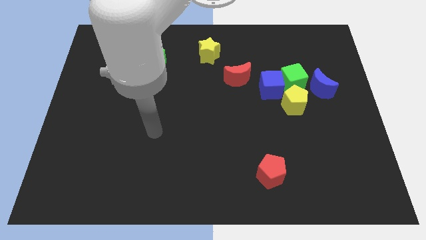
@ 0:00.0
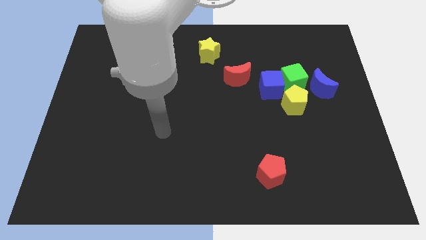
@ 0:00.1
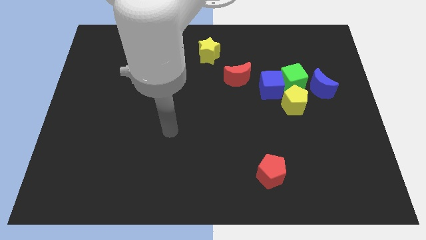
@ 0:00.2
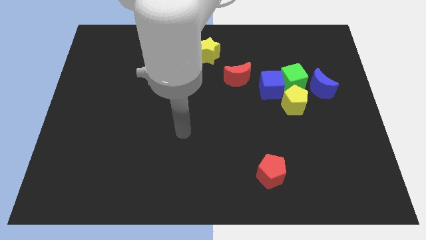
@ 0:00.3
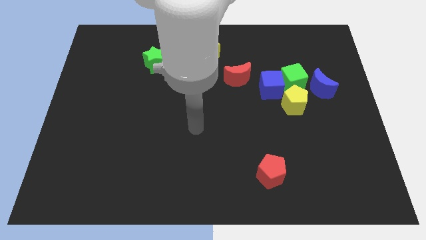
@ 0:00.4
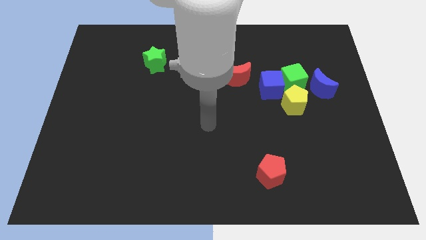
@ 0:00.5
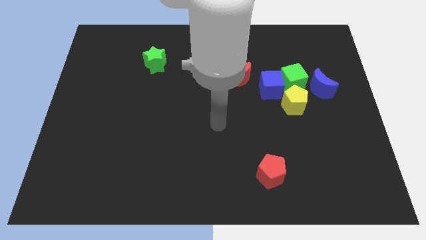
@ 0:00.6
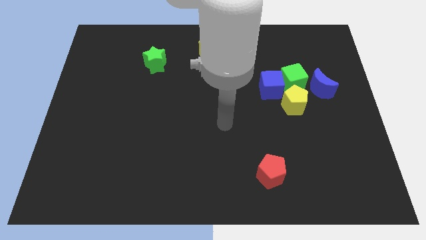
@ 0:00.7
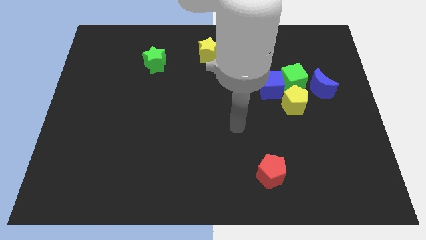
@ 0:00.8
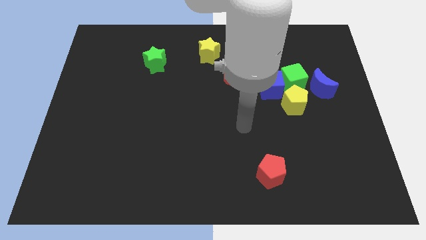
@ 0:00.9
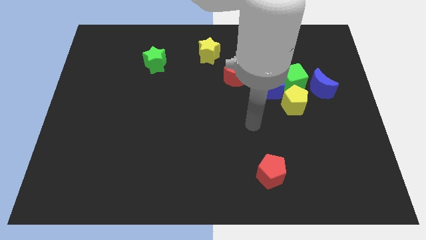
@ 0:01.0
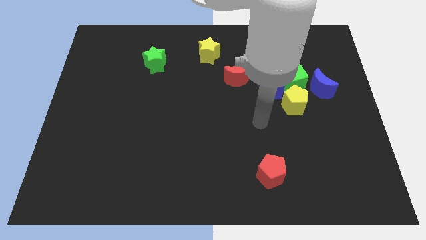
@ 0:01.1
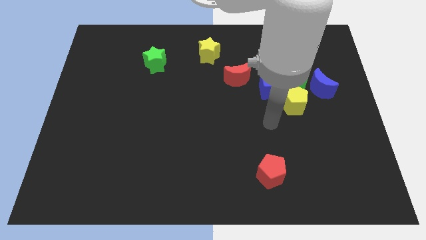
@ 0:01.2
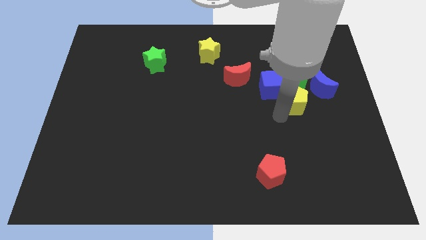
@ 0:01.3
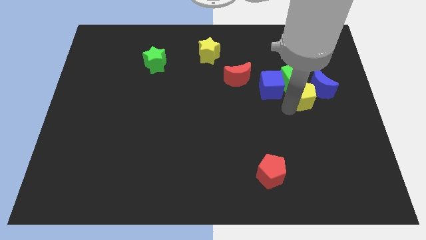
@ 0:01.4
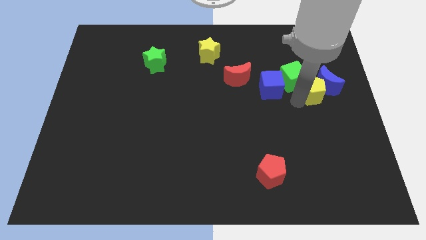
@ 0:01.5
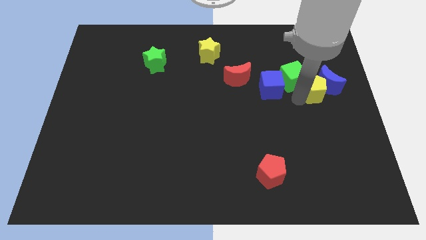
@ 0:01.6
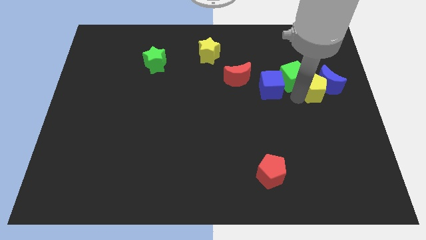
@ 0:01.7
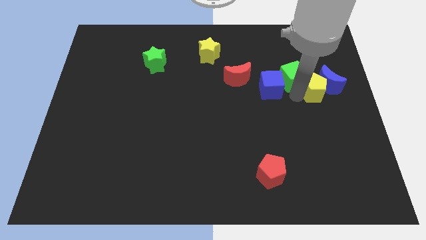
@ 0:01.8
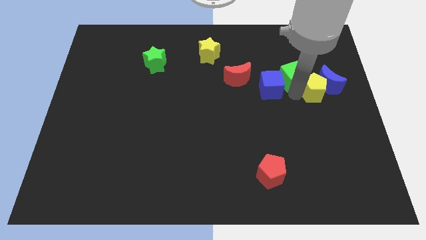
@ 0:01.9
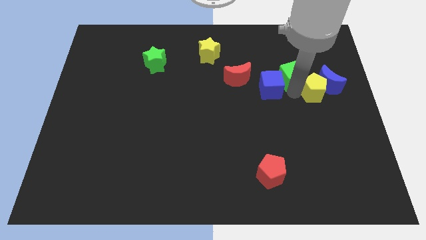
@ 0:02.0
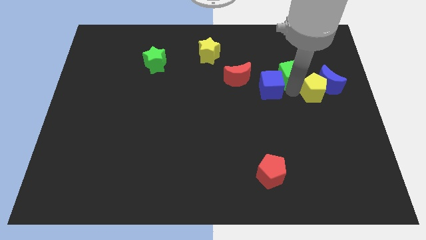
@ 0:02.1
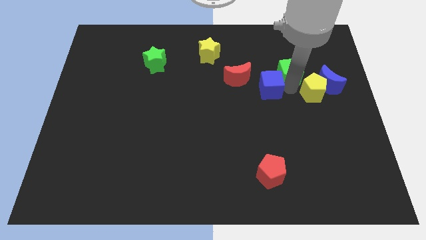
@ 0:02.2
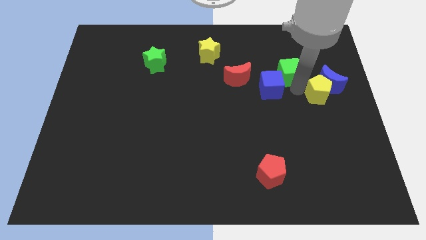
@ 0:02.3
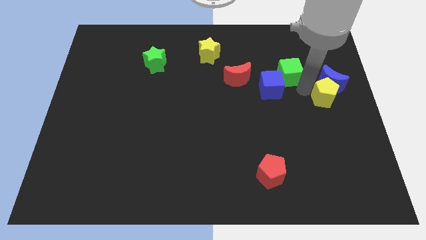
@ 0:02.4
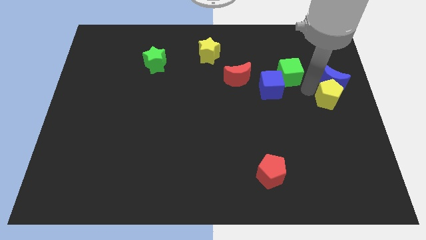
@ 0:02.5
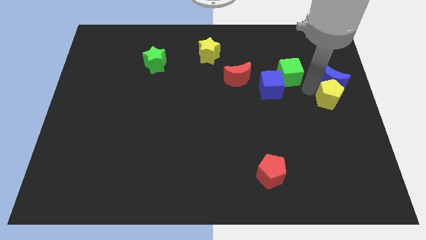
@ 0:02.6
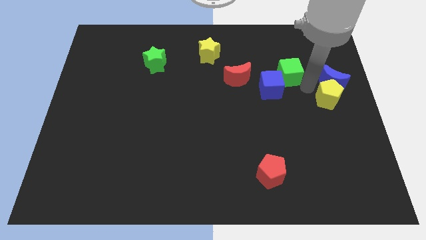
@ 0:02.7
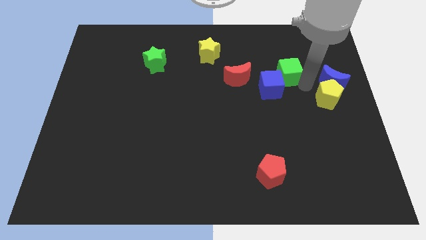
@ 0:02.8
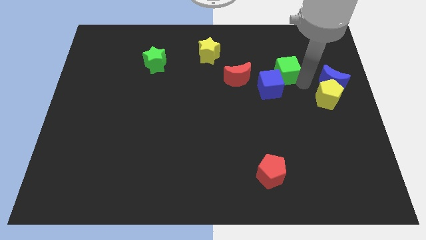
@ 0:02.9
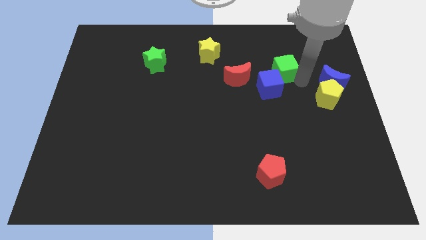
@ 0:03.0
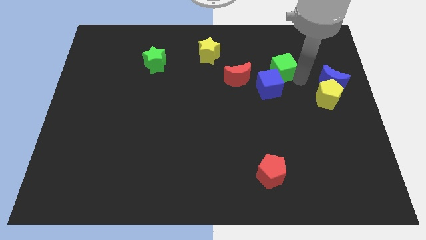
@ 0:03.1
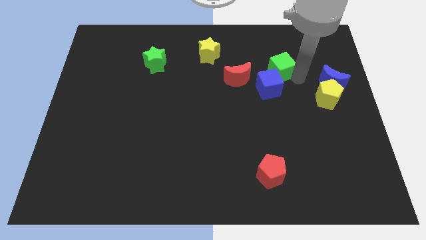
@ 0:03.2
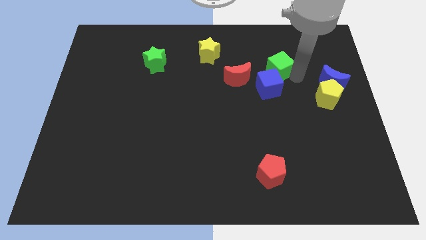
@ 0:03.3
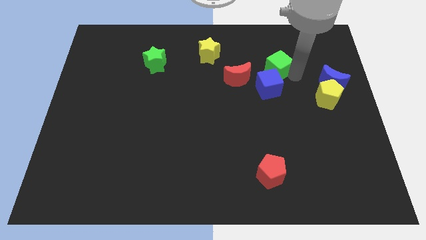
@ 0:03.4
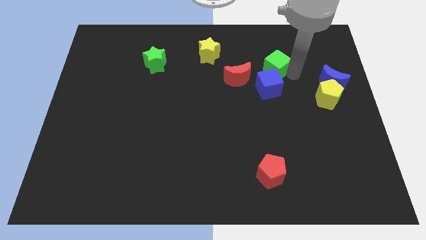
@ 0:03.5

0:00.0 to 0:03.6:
separate the green cube from the blue cube, blue moon, and yellow pentagon

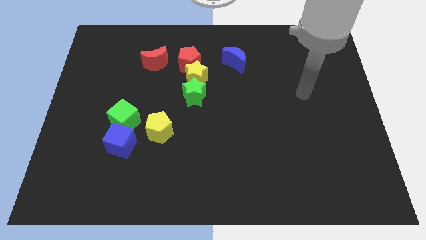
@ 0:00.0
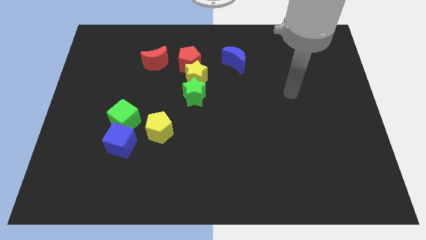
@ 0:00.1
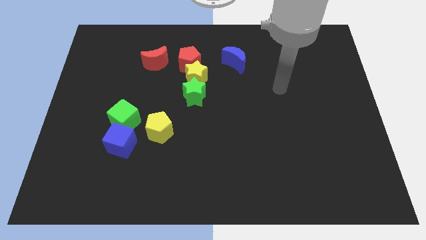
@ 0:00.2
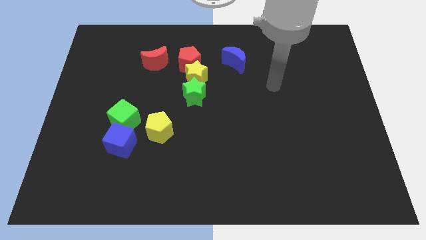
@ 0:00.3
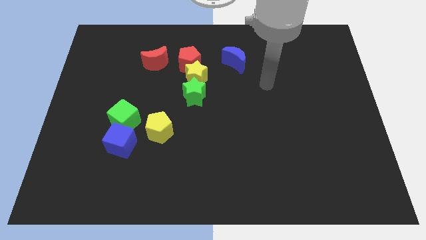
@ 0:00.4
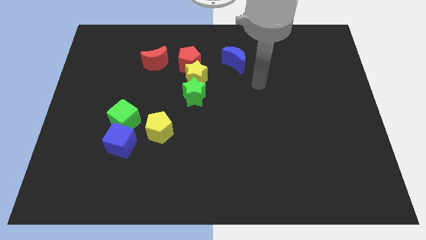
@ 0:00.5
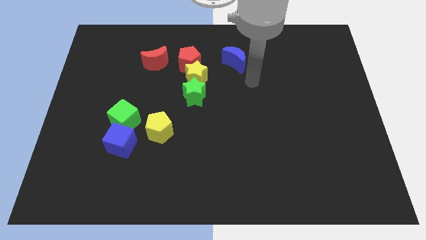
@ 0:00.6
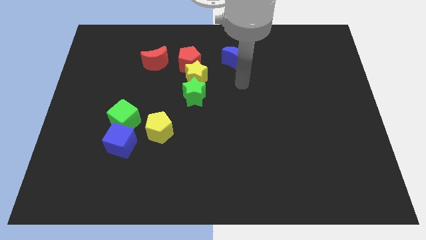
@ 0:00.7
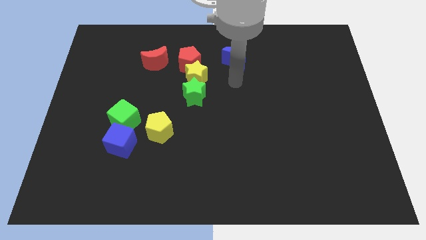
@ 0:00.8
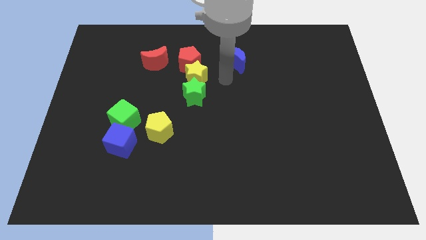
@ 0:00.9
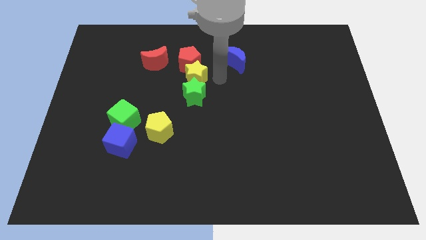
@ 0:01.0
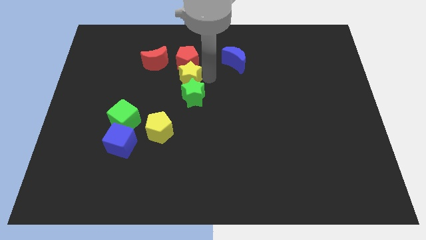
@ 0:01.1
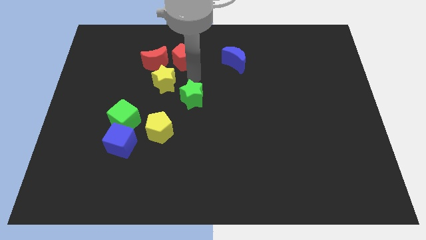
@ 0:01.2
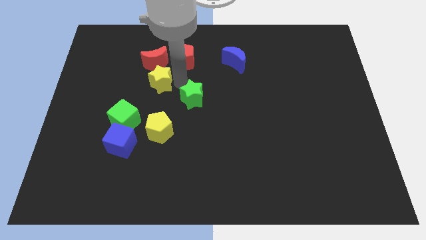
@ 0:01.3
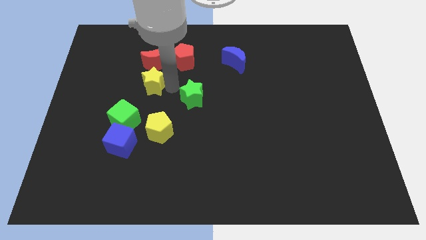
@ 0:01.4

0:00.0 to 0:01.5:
pull the green star apart from the yellow star

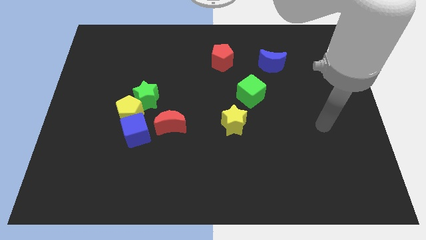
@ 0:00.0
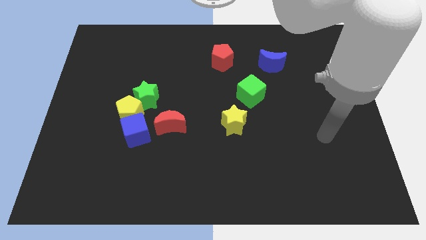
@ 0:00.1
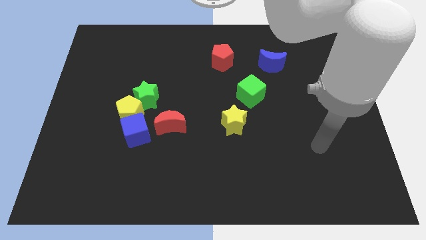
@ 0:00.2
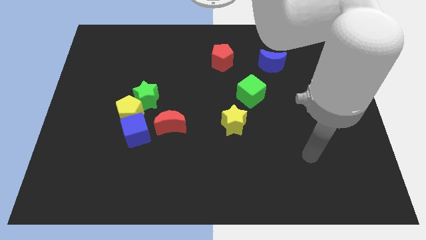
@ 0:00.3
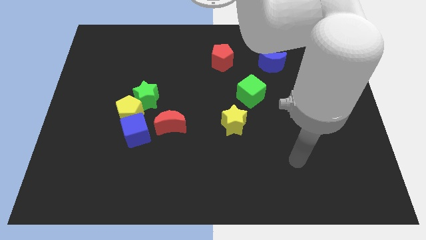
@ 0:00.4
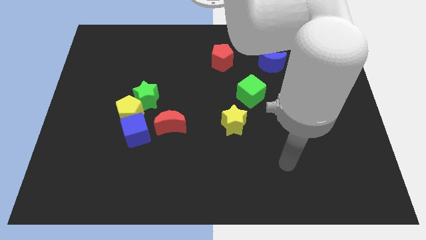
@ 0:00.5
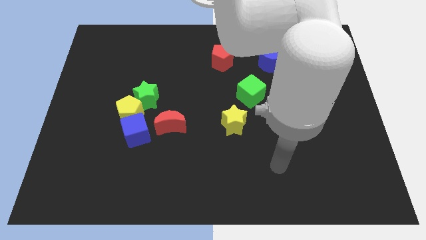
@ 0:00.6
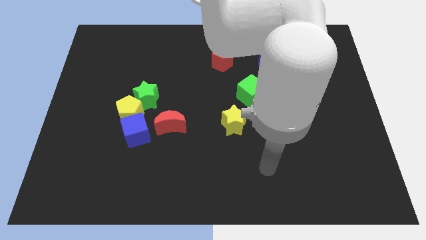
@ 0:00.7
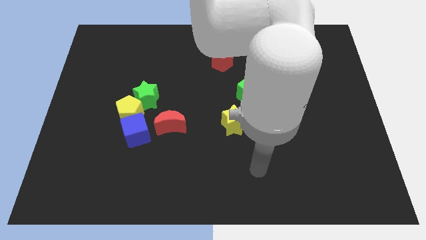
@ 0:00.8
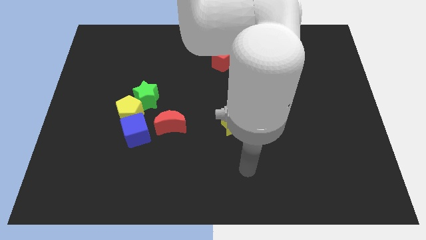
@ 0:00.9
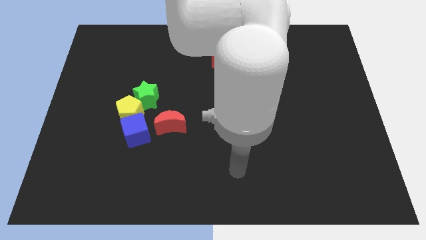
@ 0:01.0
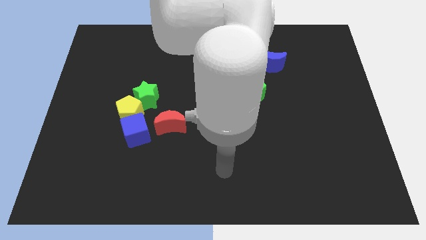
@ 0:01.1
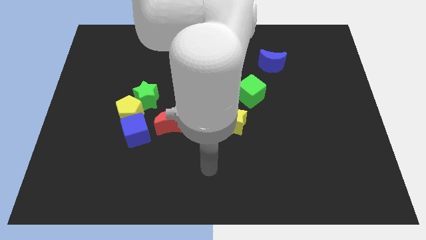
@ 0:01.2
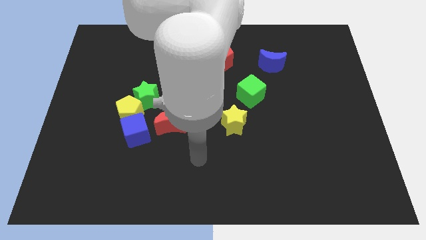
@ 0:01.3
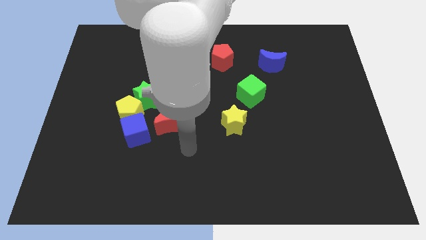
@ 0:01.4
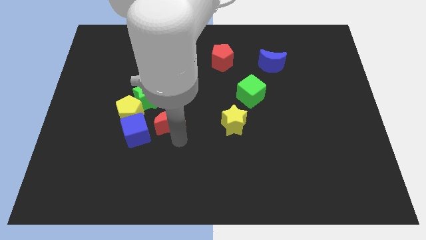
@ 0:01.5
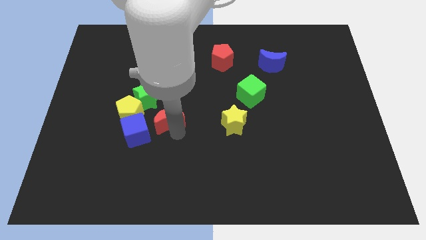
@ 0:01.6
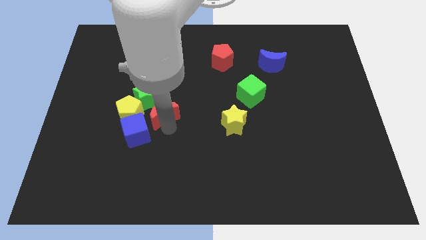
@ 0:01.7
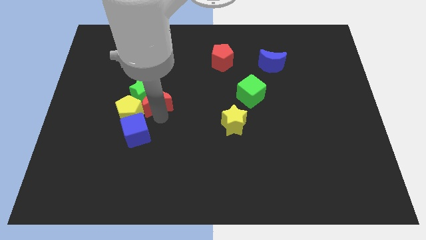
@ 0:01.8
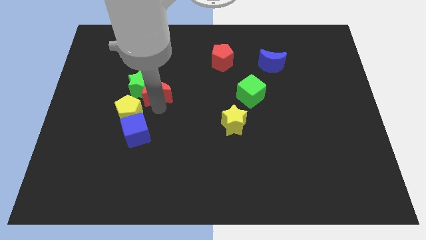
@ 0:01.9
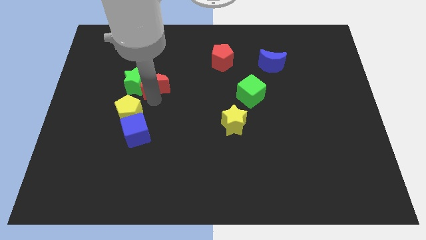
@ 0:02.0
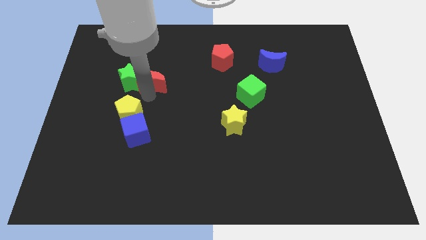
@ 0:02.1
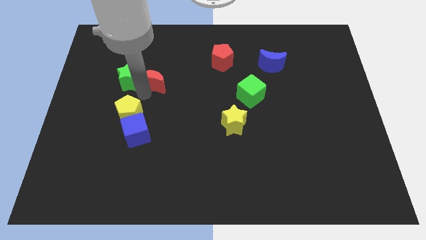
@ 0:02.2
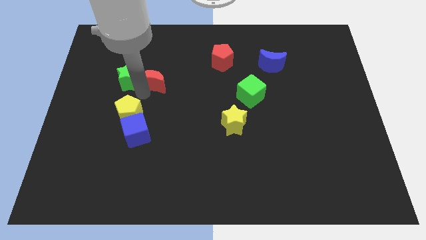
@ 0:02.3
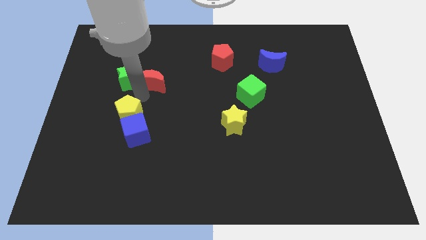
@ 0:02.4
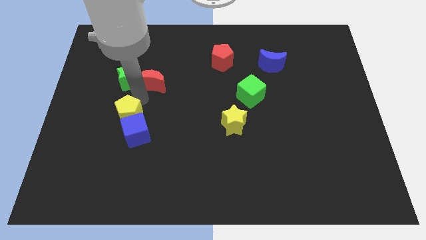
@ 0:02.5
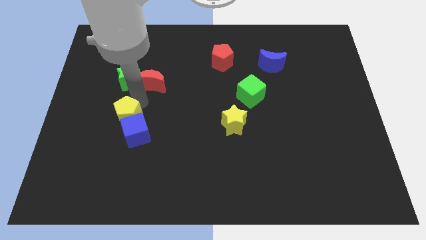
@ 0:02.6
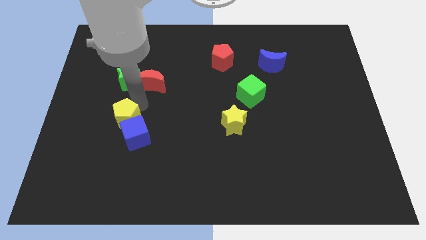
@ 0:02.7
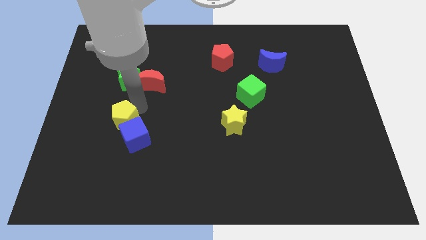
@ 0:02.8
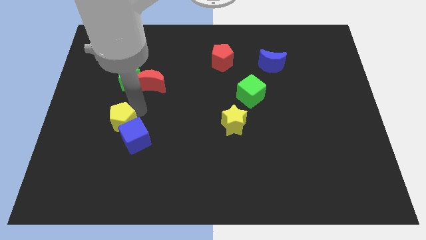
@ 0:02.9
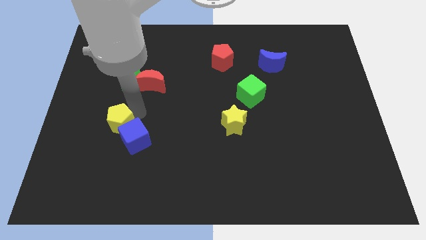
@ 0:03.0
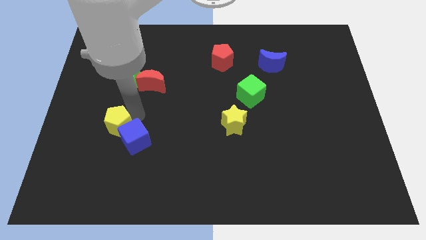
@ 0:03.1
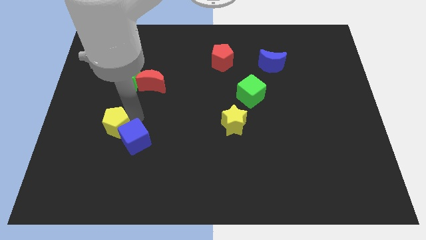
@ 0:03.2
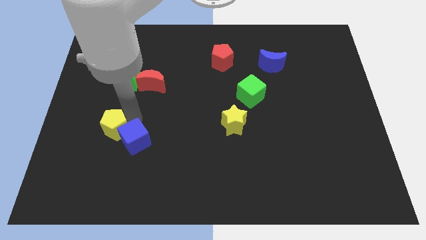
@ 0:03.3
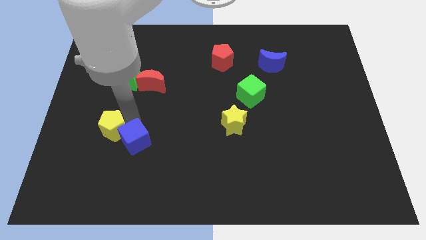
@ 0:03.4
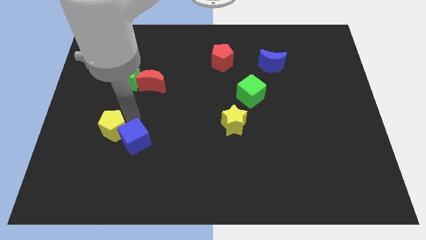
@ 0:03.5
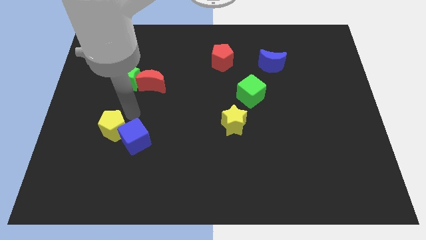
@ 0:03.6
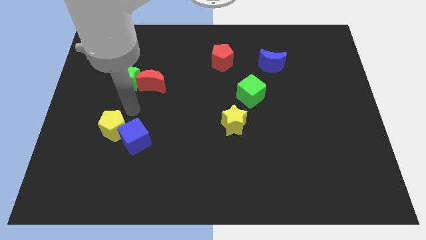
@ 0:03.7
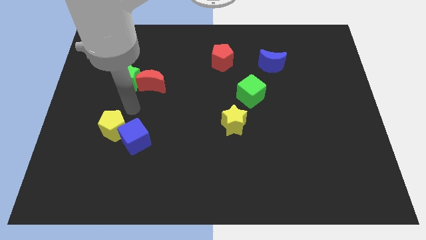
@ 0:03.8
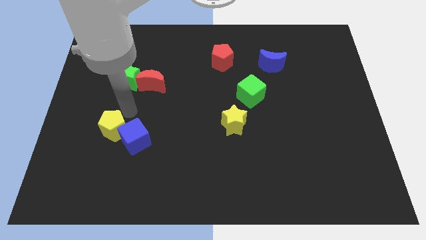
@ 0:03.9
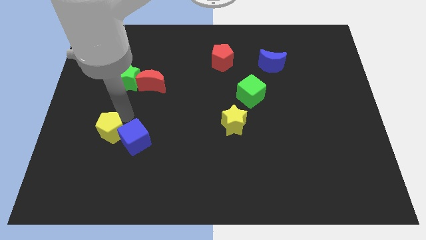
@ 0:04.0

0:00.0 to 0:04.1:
pull the yellow pentagon apart from the blue cube, green star, and red moon

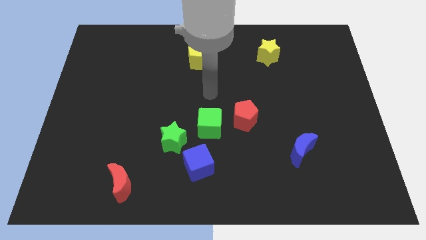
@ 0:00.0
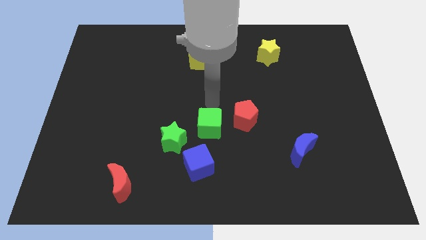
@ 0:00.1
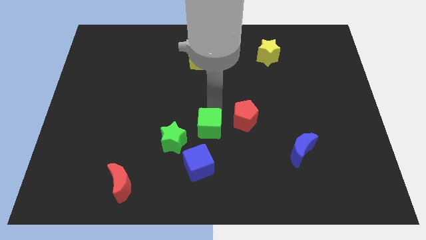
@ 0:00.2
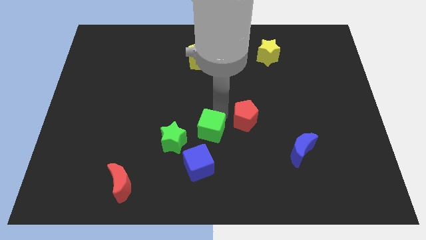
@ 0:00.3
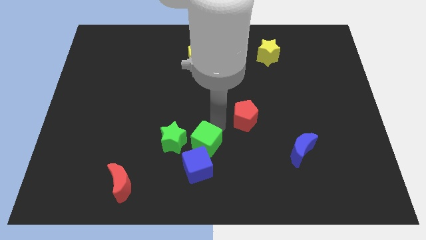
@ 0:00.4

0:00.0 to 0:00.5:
separate the red pentagon from the green cube
